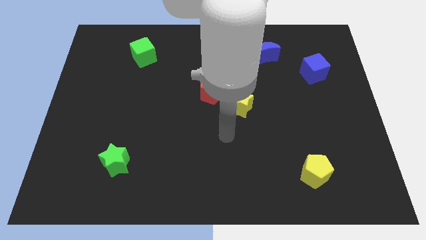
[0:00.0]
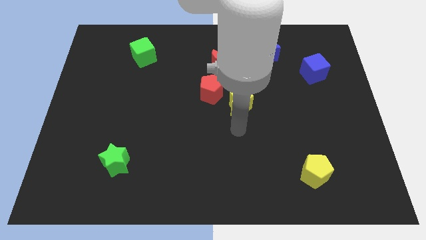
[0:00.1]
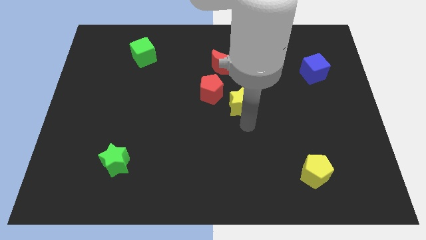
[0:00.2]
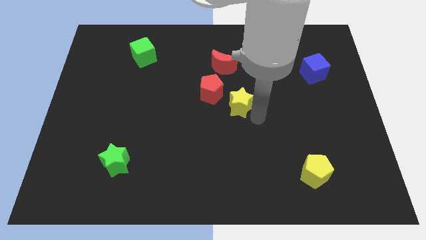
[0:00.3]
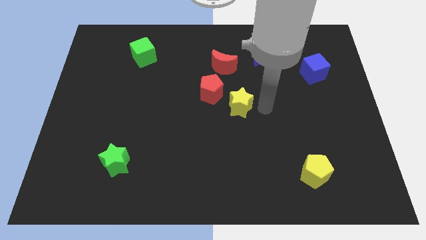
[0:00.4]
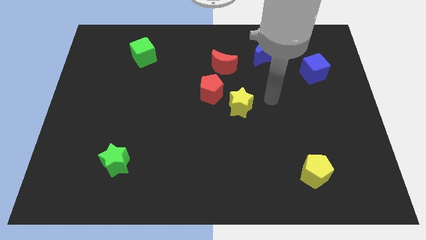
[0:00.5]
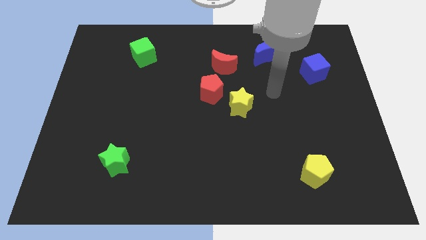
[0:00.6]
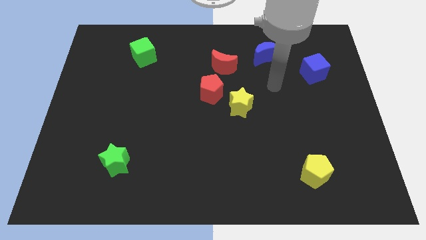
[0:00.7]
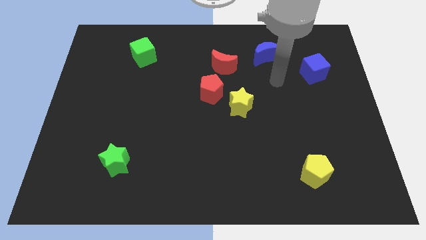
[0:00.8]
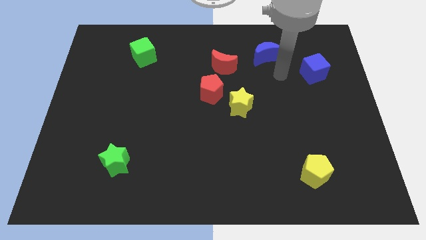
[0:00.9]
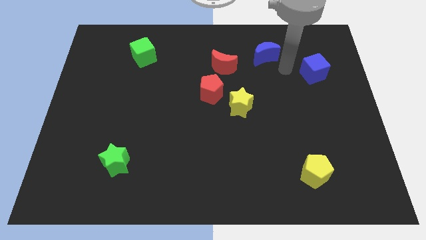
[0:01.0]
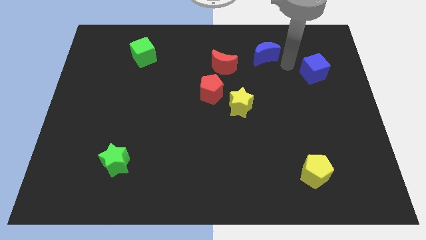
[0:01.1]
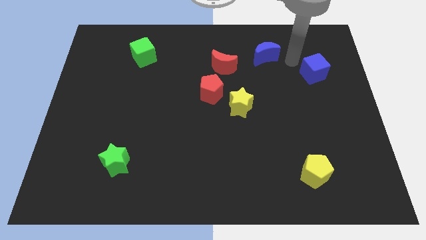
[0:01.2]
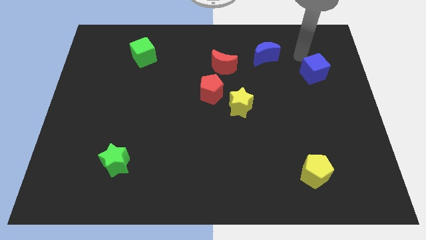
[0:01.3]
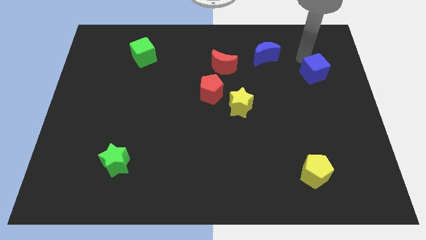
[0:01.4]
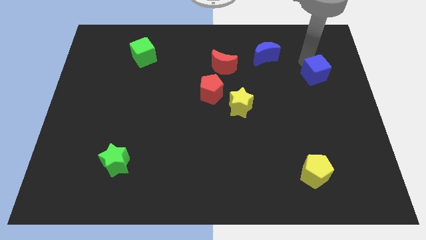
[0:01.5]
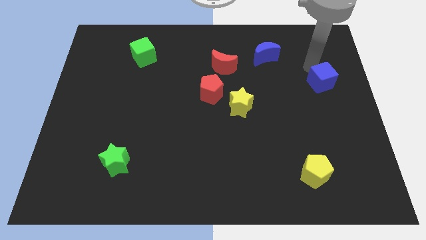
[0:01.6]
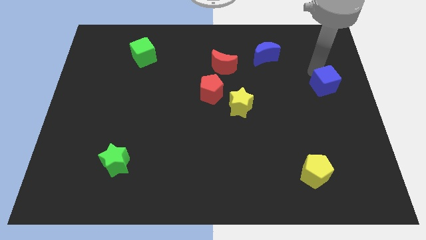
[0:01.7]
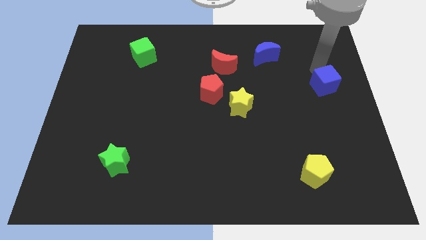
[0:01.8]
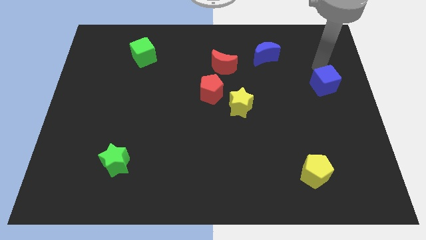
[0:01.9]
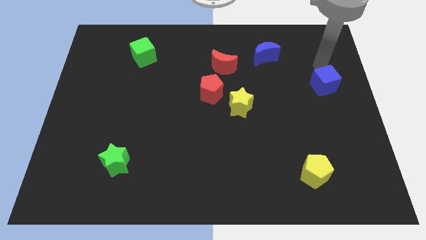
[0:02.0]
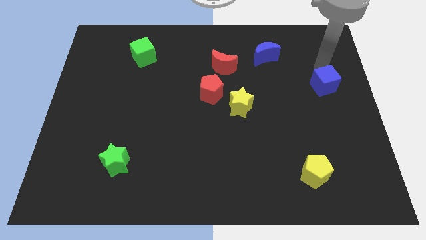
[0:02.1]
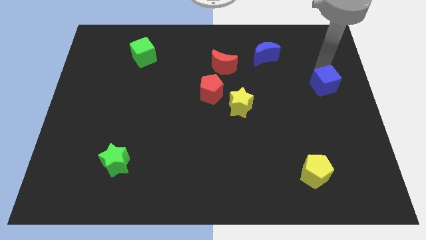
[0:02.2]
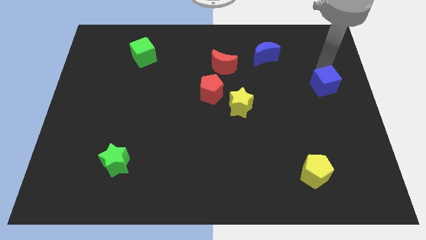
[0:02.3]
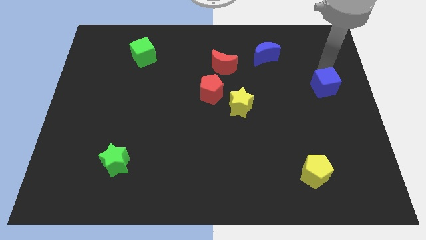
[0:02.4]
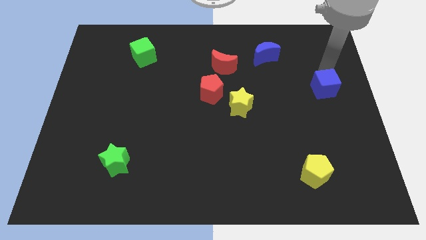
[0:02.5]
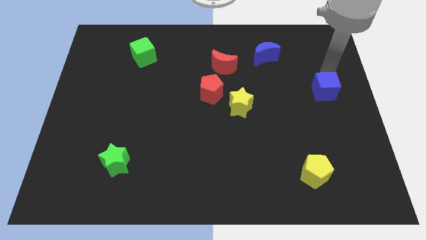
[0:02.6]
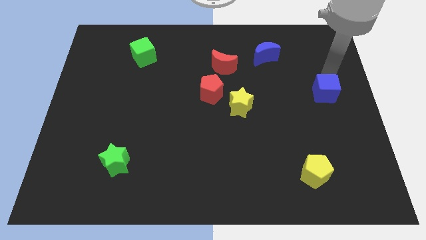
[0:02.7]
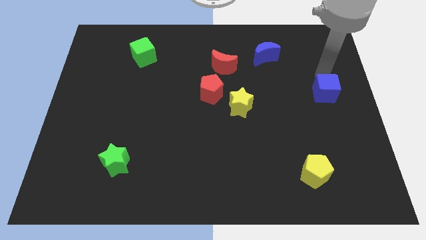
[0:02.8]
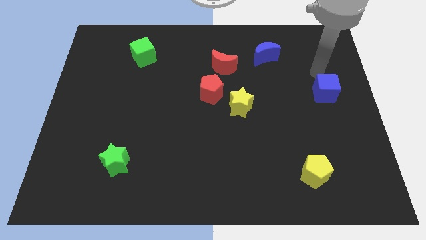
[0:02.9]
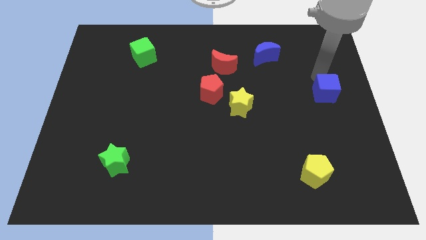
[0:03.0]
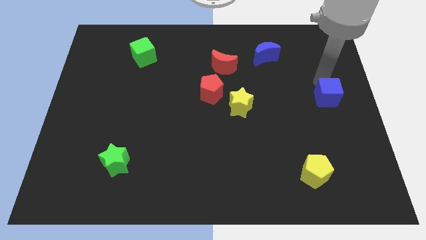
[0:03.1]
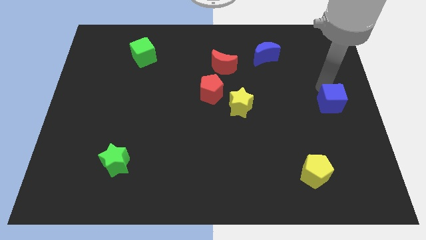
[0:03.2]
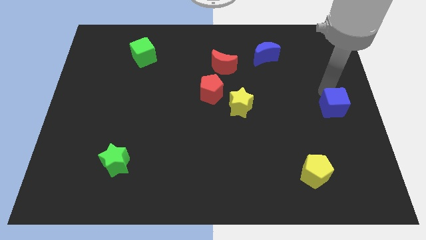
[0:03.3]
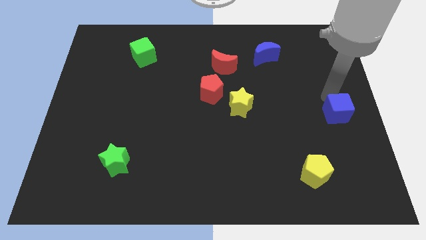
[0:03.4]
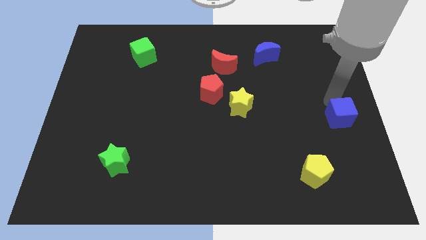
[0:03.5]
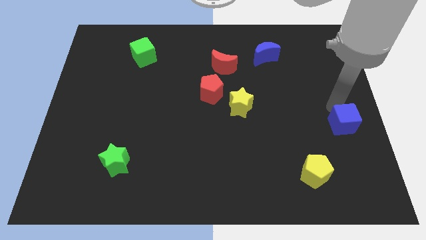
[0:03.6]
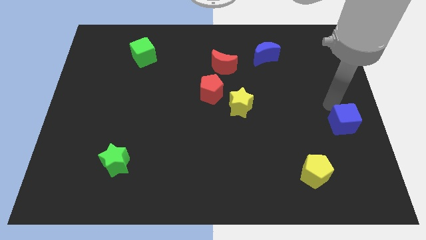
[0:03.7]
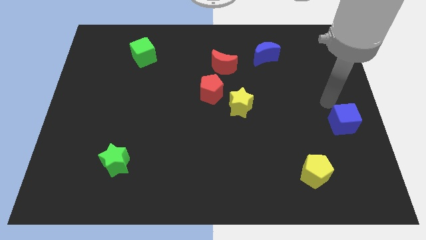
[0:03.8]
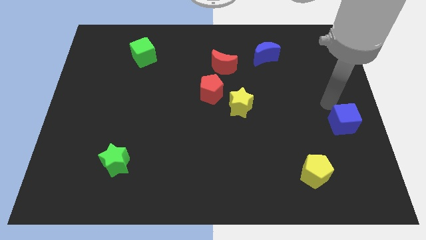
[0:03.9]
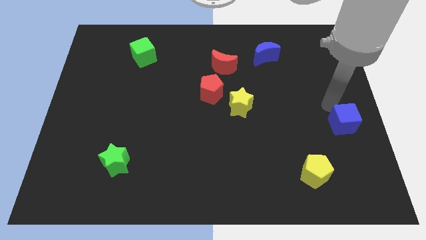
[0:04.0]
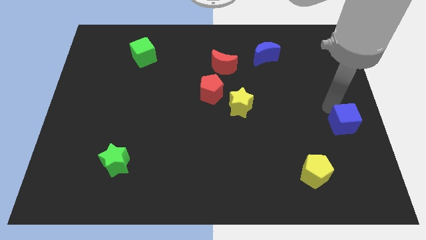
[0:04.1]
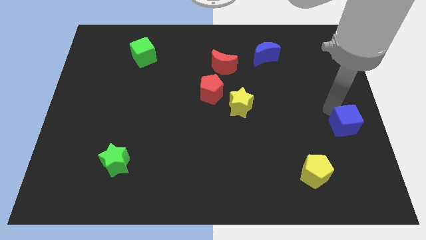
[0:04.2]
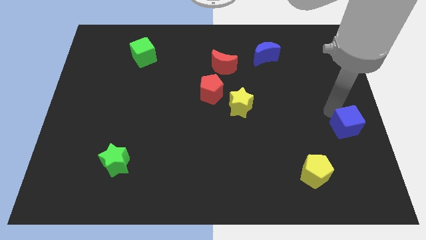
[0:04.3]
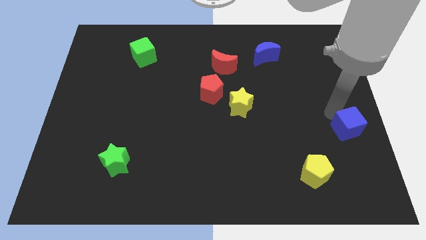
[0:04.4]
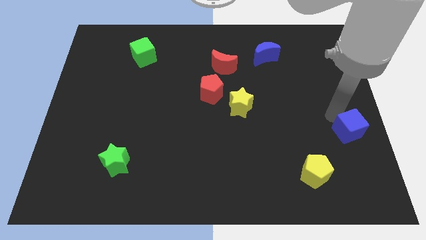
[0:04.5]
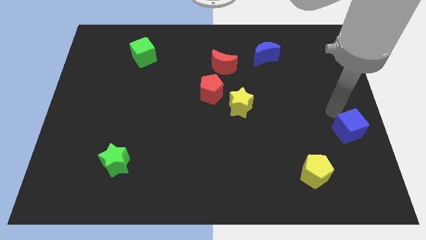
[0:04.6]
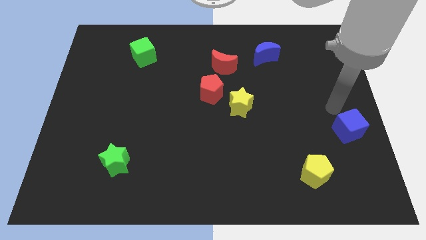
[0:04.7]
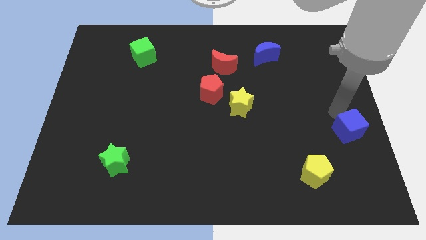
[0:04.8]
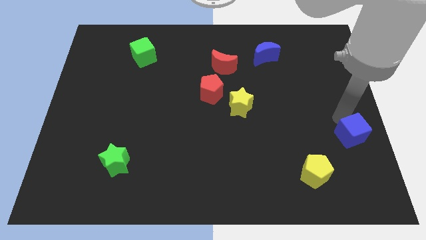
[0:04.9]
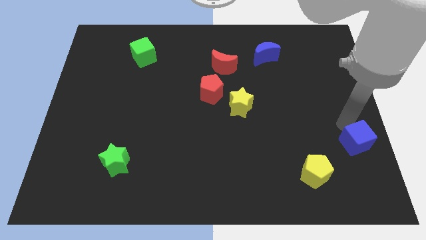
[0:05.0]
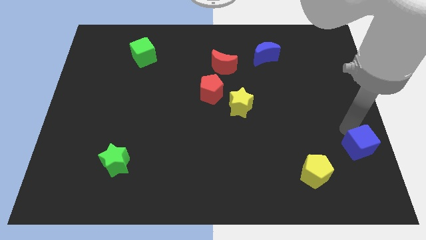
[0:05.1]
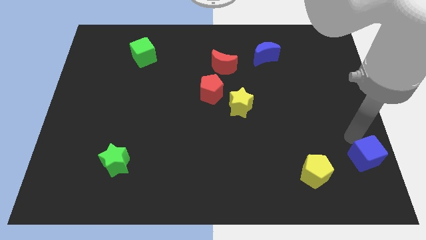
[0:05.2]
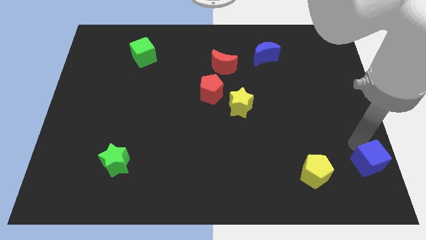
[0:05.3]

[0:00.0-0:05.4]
push the blue cube to the bottom right of the board
